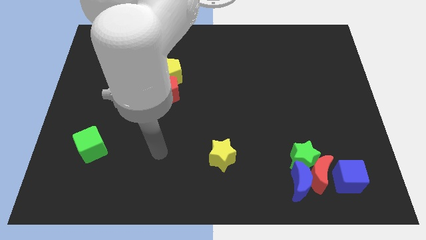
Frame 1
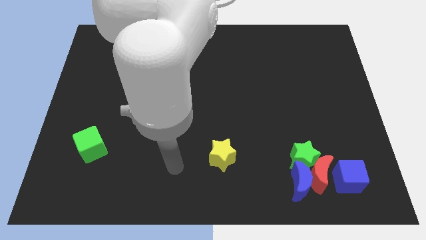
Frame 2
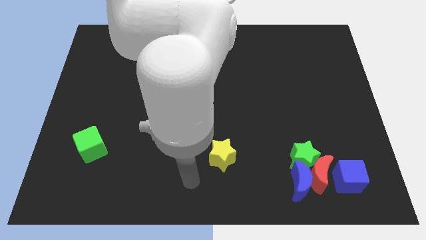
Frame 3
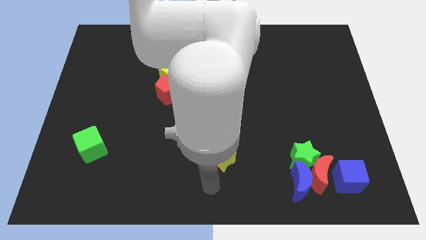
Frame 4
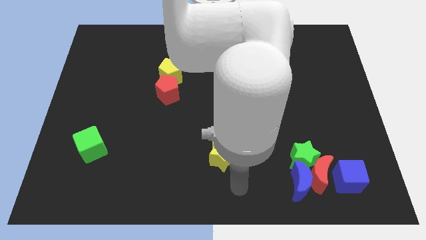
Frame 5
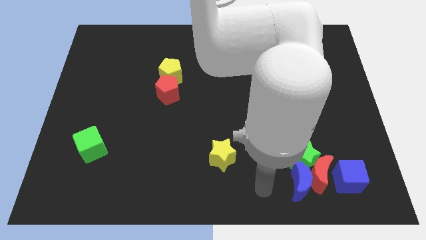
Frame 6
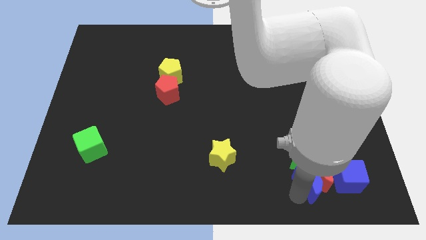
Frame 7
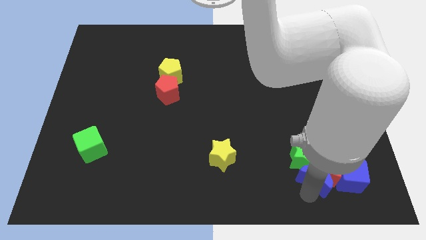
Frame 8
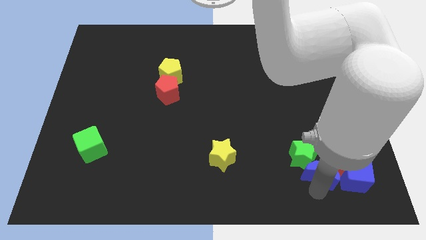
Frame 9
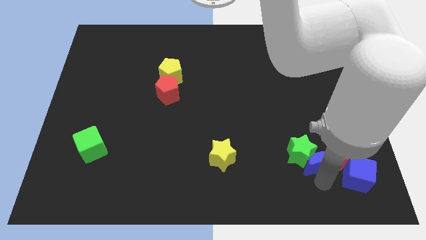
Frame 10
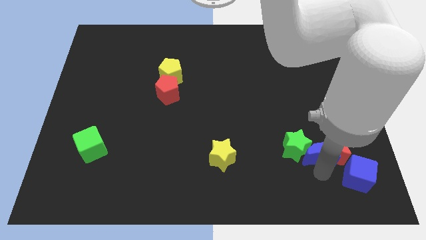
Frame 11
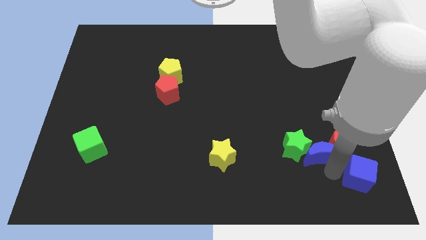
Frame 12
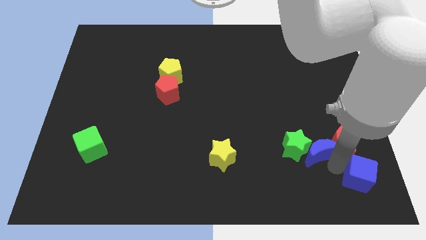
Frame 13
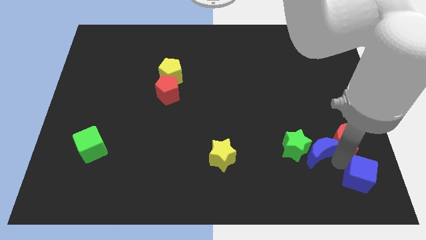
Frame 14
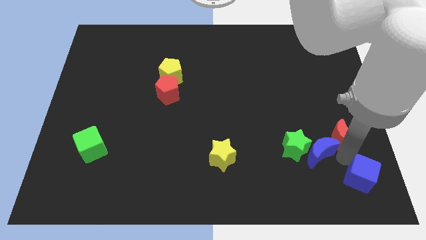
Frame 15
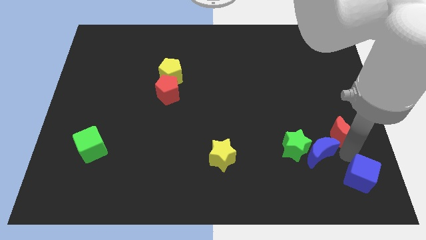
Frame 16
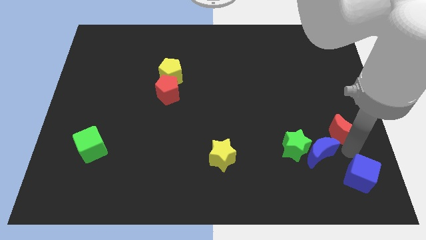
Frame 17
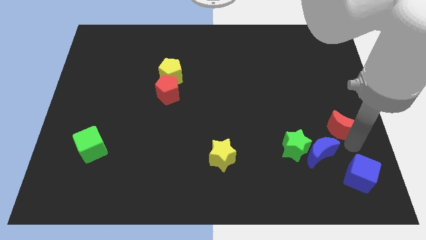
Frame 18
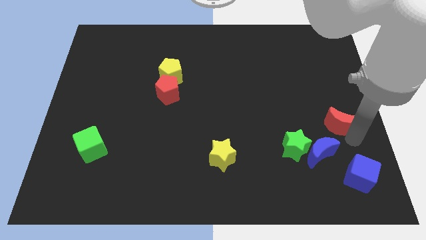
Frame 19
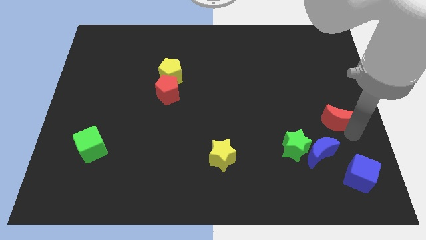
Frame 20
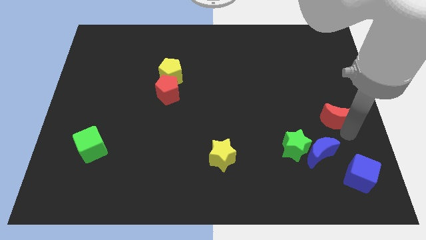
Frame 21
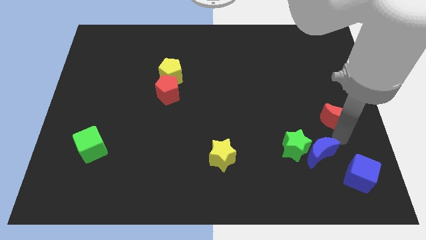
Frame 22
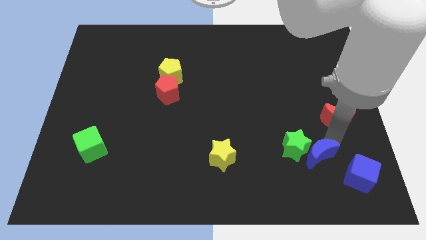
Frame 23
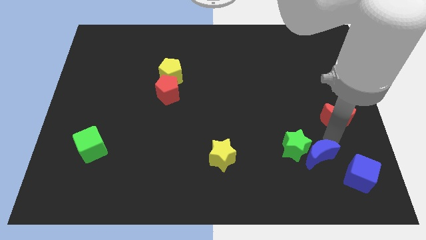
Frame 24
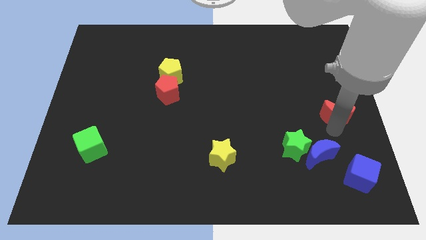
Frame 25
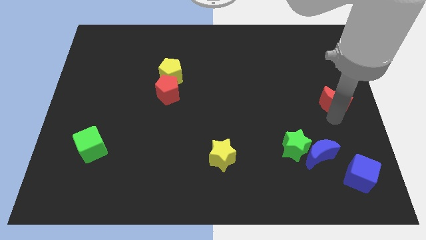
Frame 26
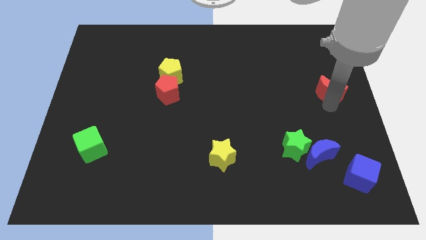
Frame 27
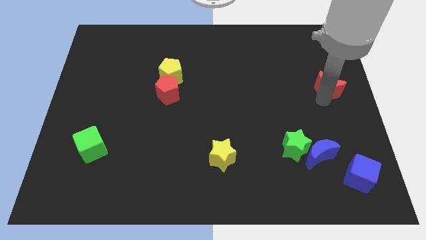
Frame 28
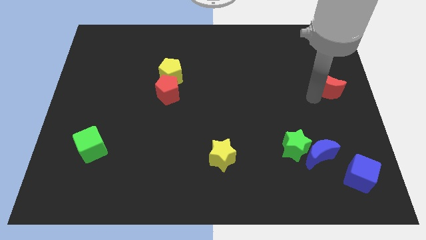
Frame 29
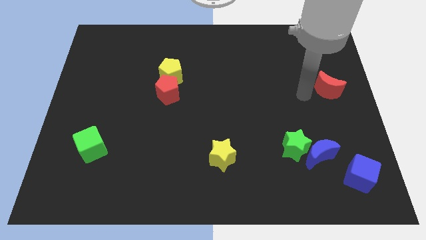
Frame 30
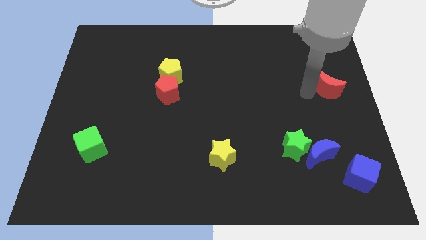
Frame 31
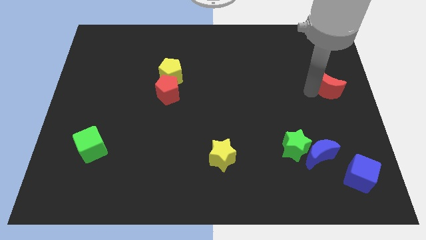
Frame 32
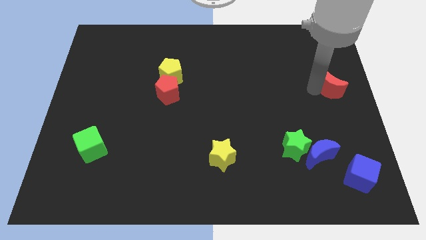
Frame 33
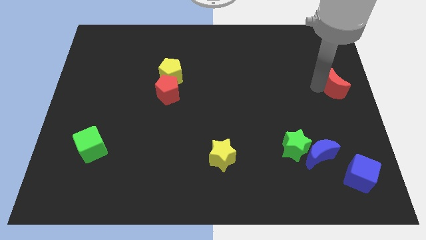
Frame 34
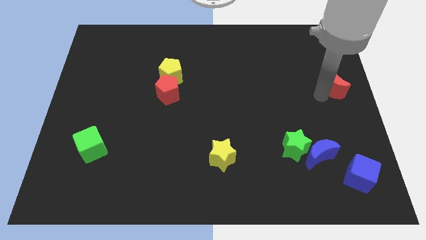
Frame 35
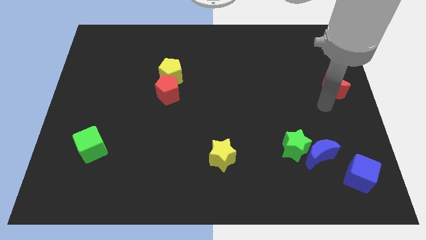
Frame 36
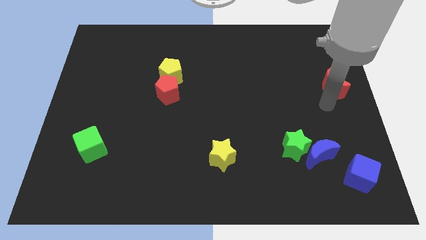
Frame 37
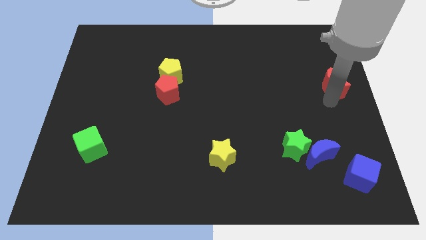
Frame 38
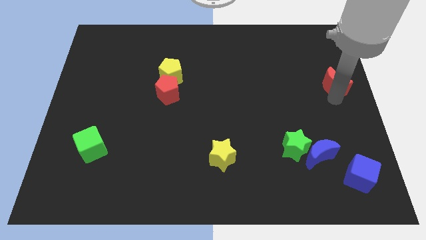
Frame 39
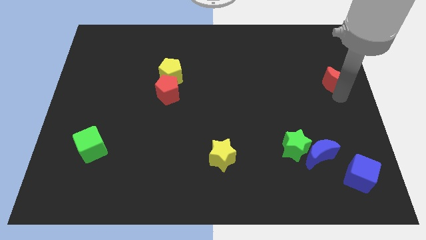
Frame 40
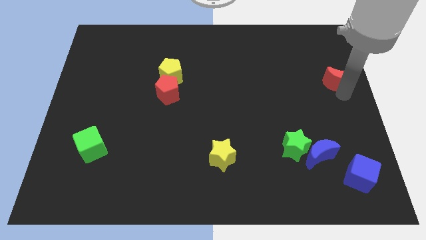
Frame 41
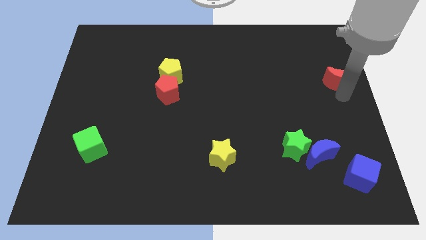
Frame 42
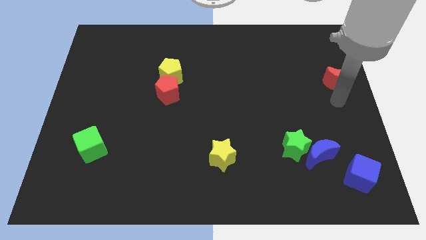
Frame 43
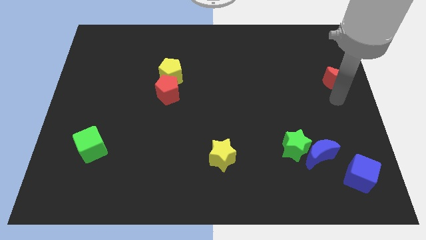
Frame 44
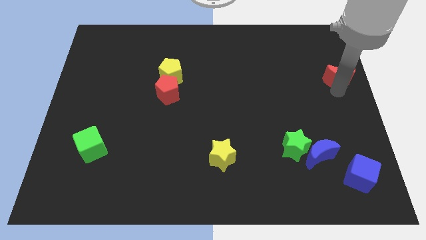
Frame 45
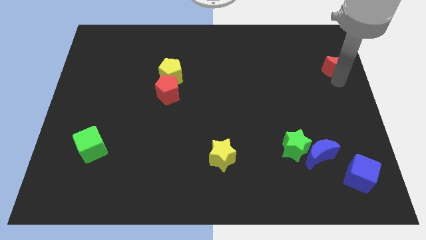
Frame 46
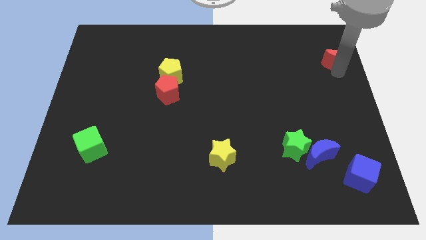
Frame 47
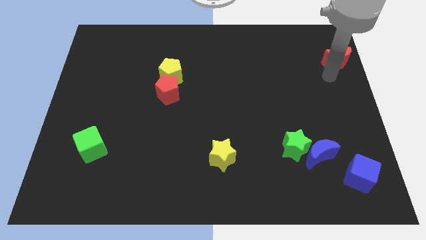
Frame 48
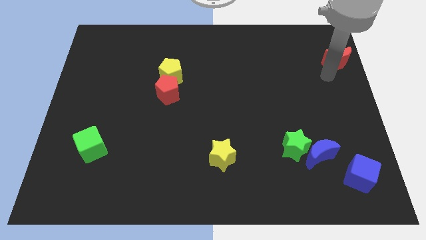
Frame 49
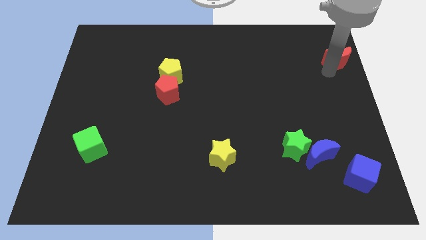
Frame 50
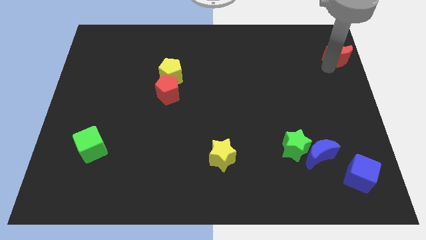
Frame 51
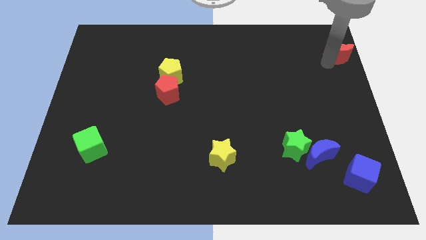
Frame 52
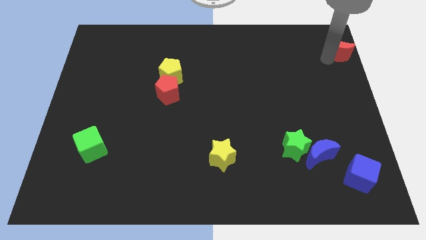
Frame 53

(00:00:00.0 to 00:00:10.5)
push the red moon to the top right corner

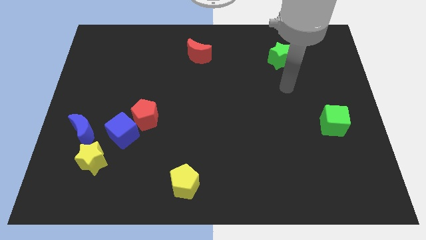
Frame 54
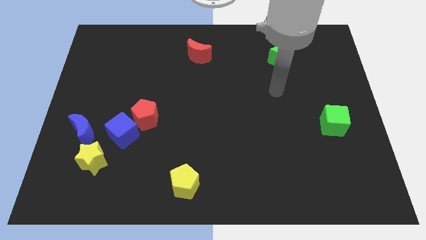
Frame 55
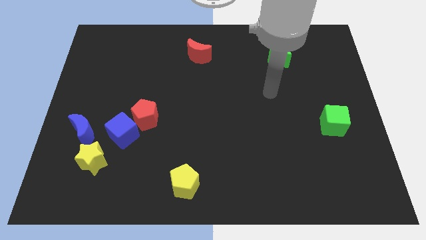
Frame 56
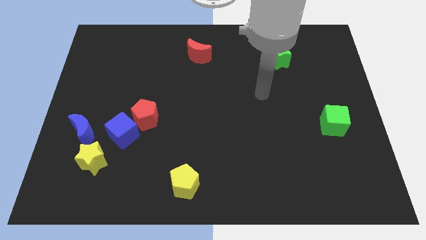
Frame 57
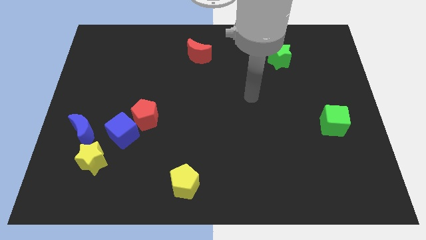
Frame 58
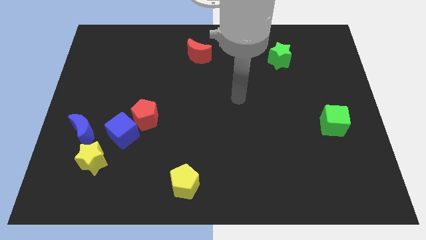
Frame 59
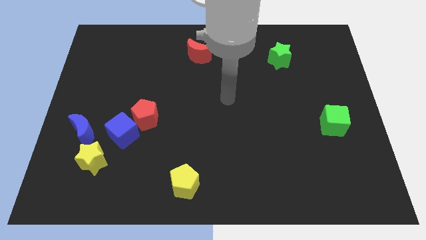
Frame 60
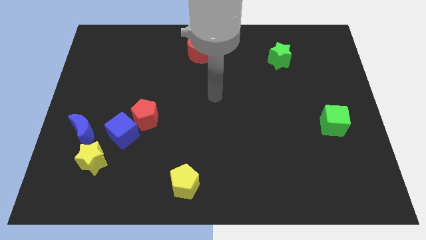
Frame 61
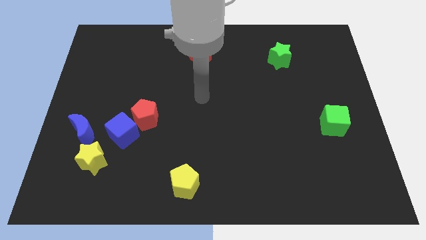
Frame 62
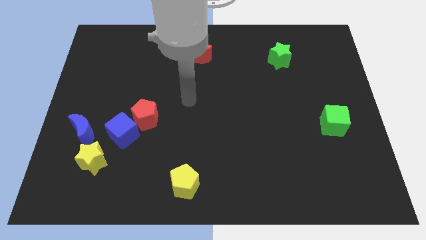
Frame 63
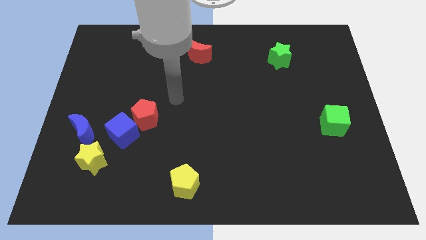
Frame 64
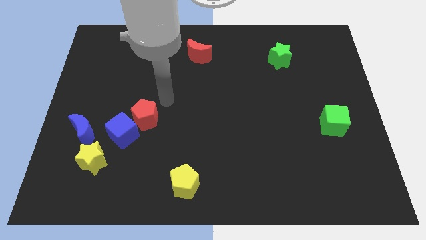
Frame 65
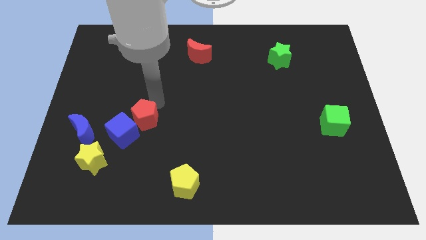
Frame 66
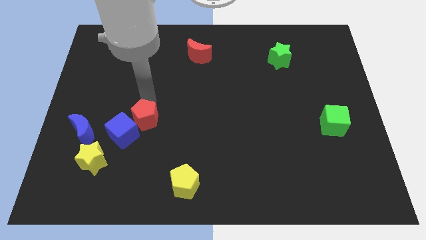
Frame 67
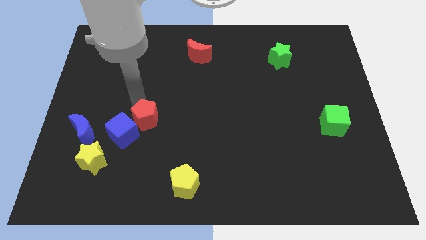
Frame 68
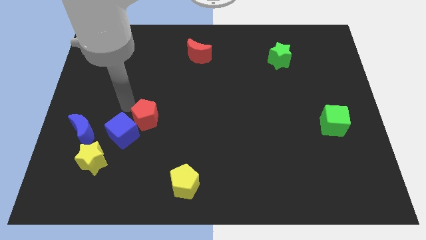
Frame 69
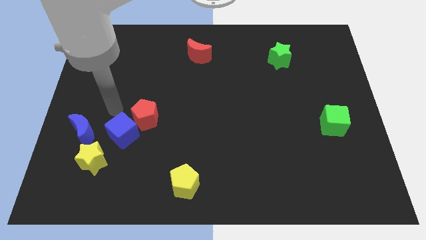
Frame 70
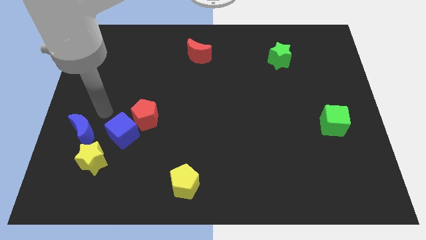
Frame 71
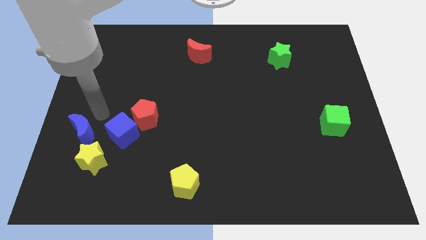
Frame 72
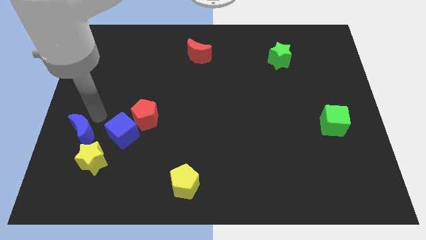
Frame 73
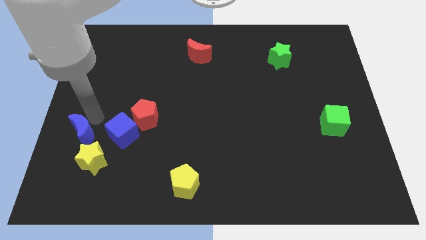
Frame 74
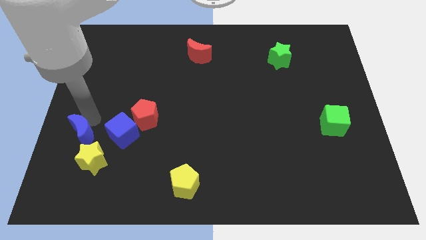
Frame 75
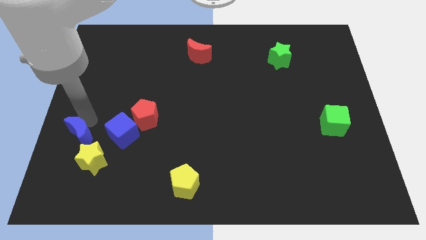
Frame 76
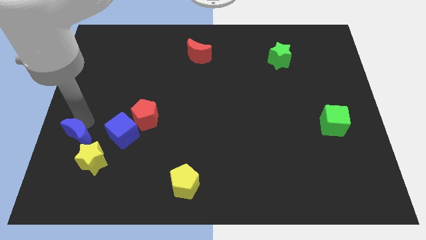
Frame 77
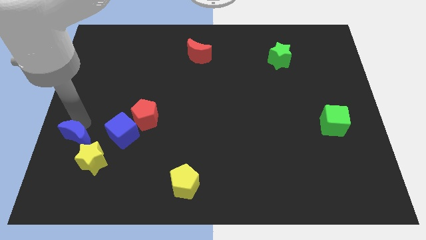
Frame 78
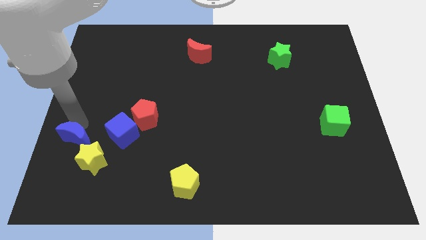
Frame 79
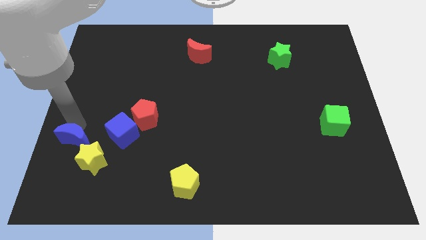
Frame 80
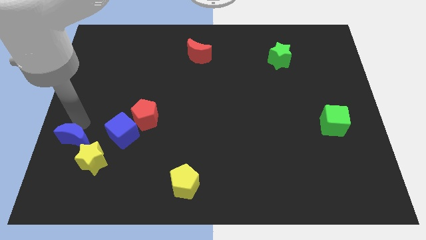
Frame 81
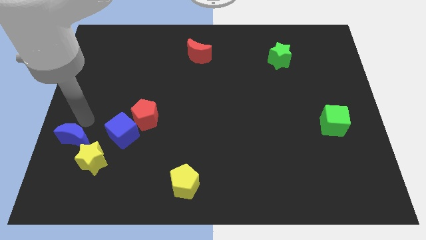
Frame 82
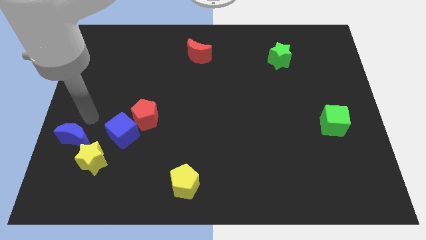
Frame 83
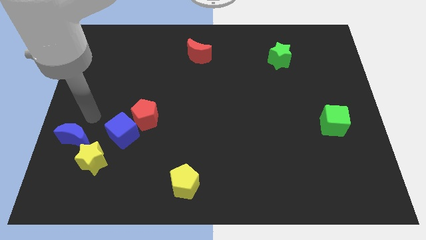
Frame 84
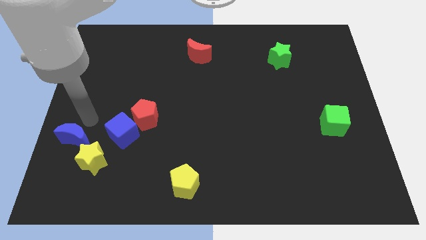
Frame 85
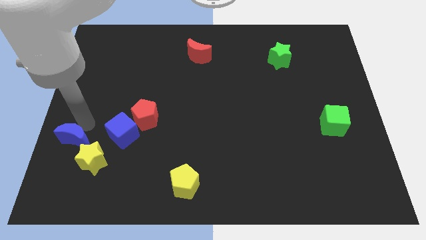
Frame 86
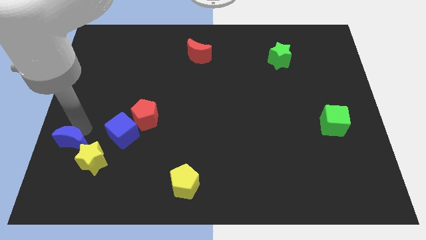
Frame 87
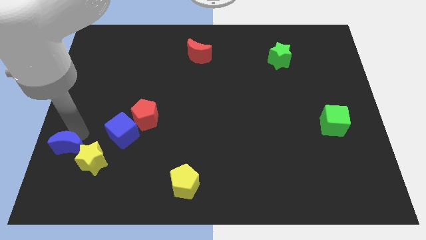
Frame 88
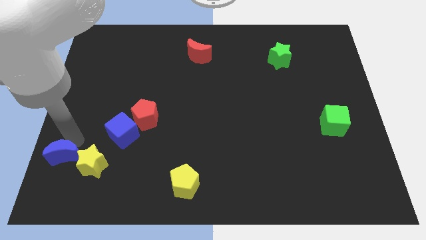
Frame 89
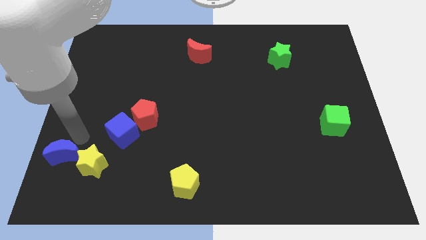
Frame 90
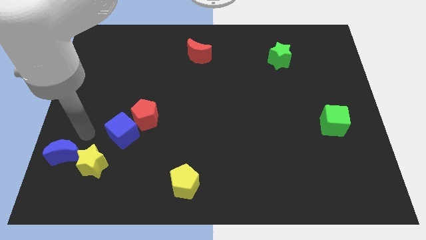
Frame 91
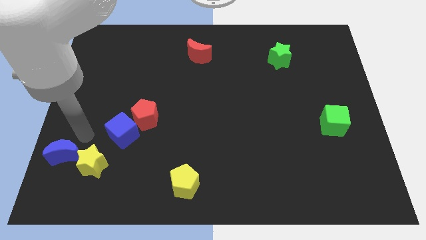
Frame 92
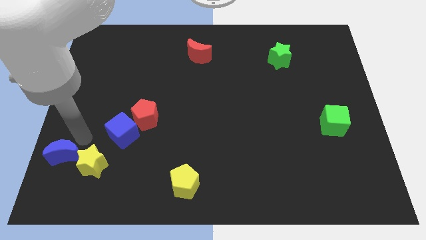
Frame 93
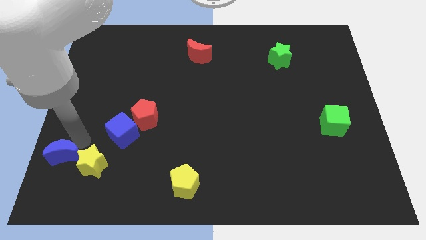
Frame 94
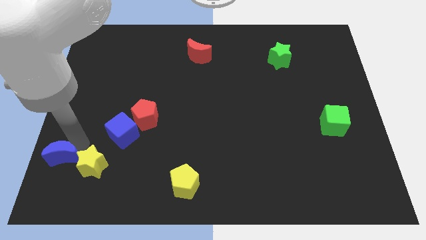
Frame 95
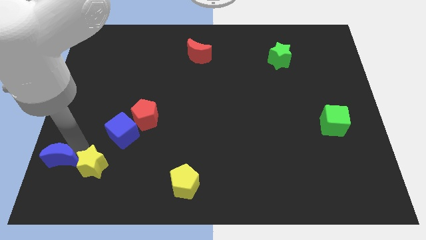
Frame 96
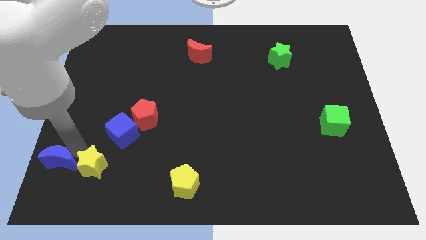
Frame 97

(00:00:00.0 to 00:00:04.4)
move the blue moon to the bottom left
